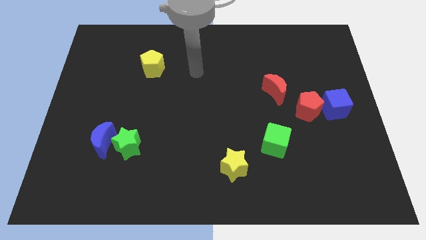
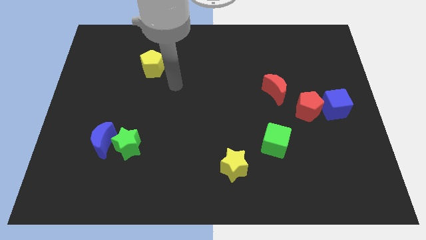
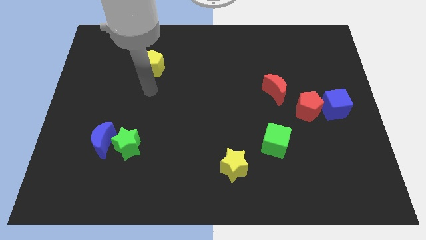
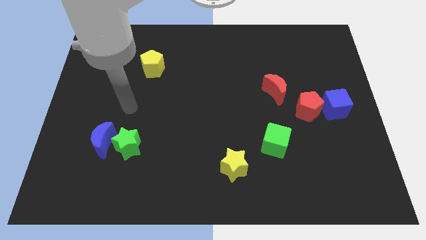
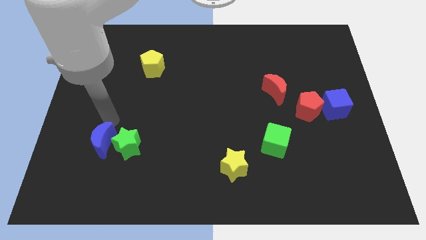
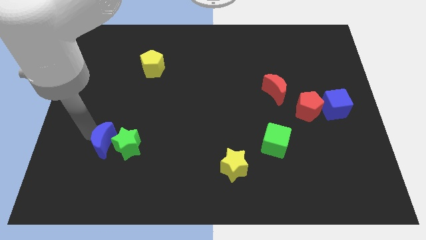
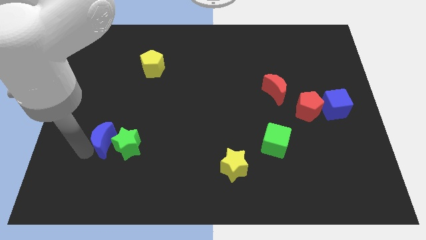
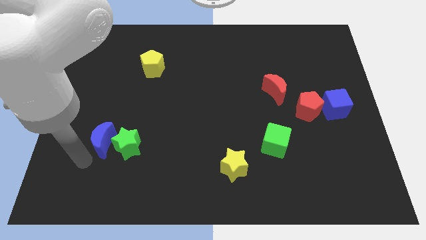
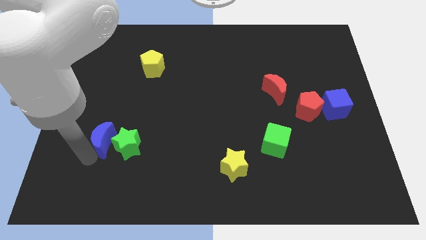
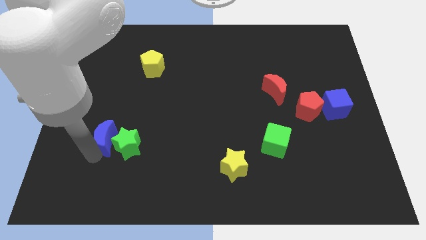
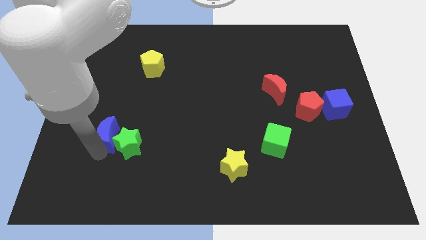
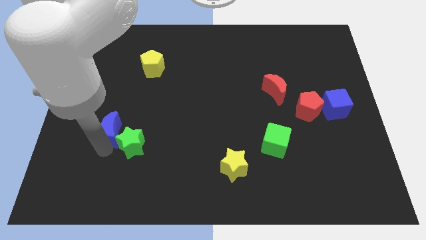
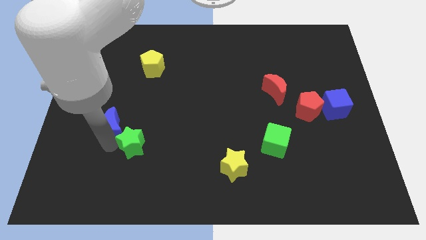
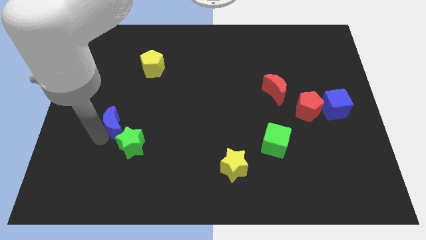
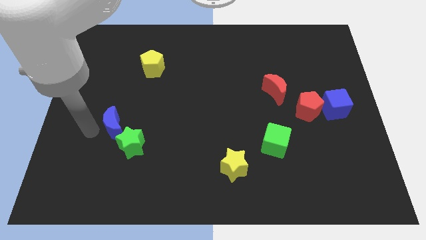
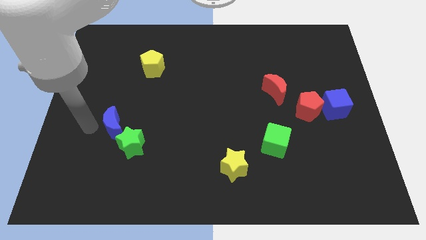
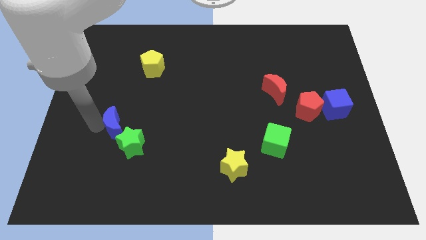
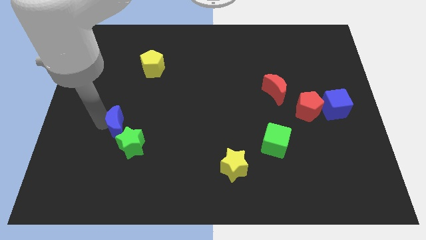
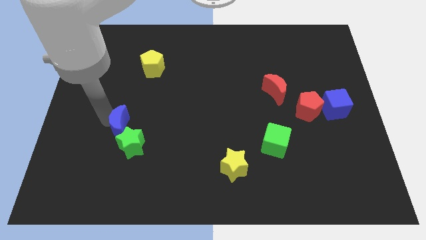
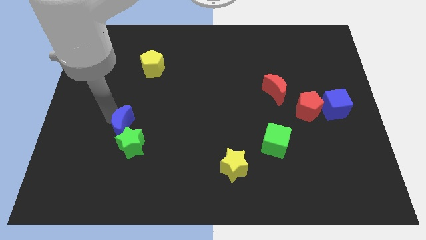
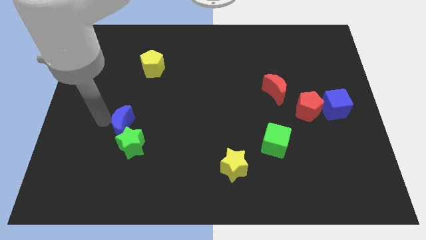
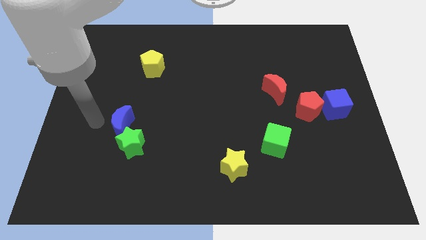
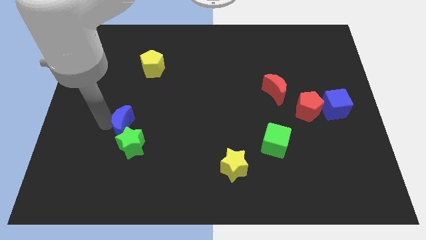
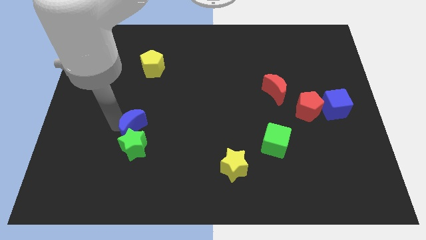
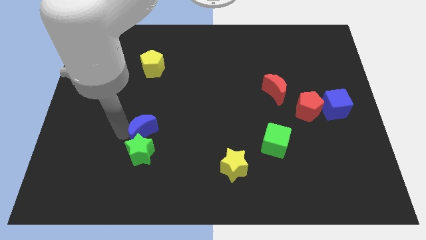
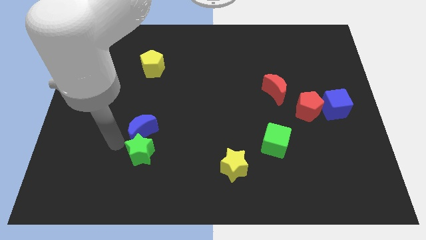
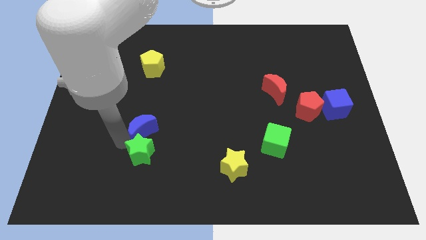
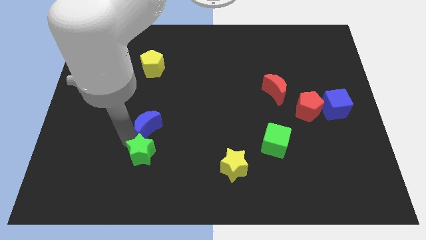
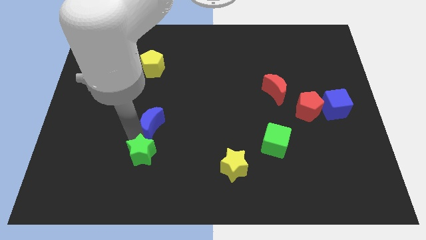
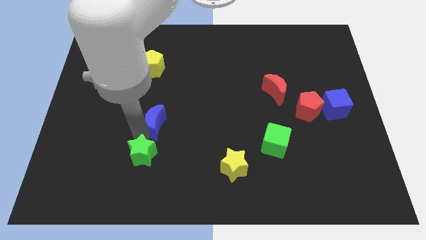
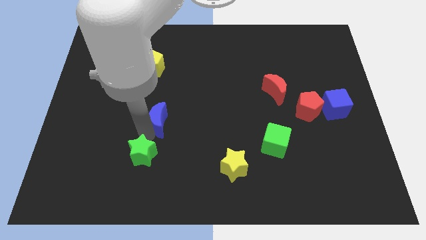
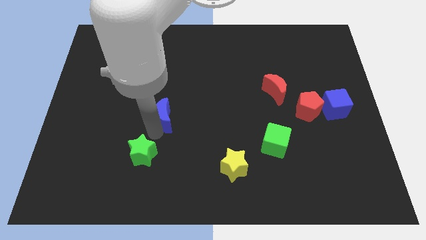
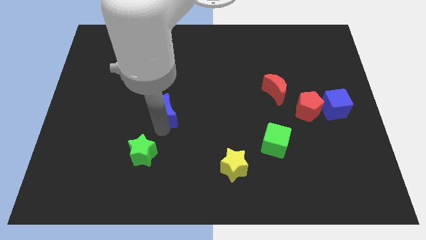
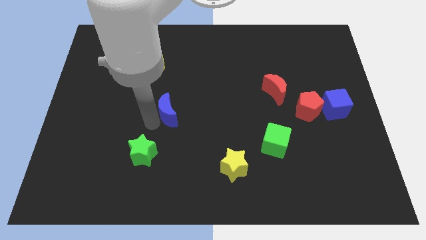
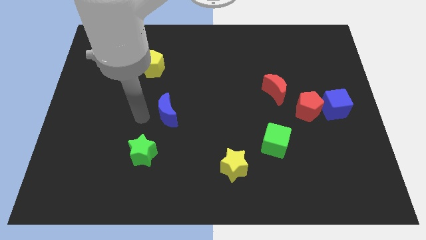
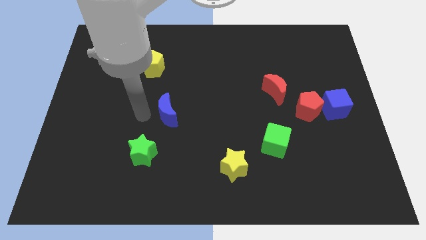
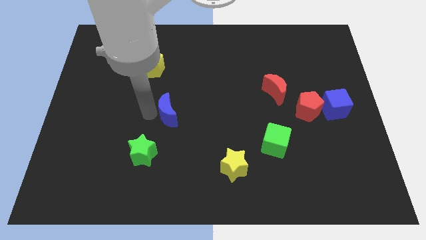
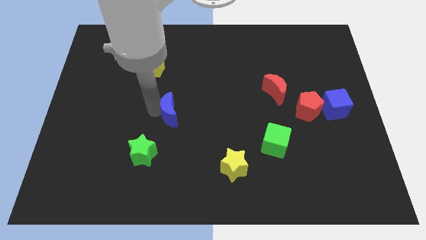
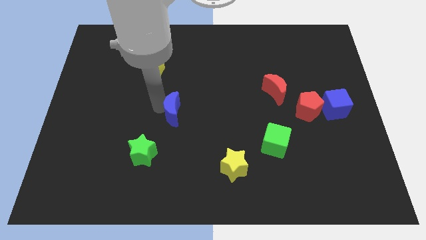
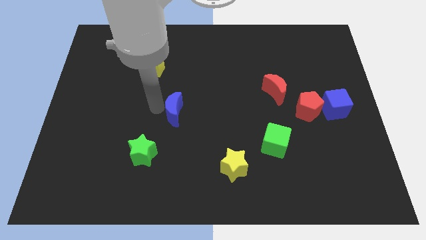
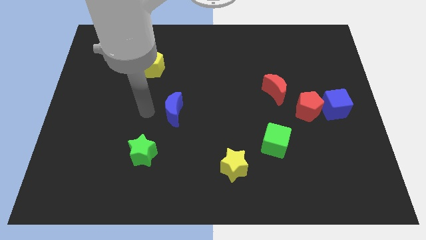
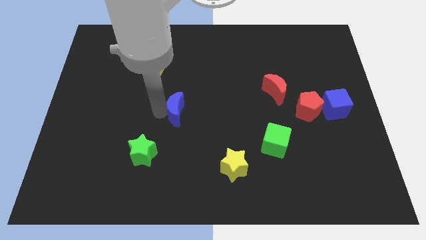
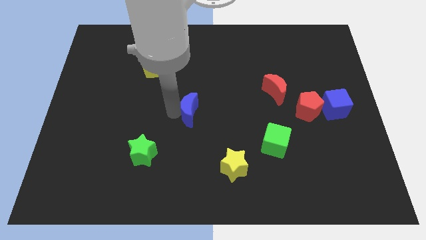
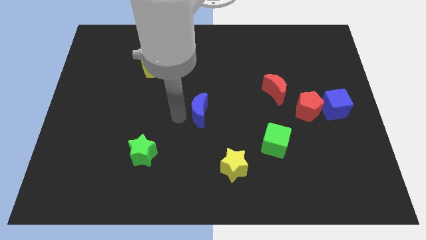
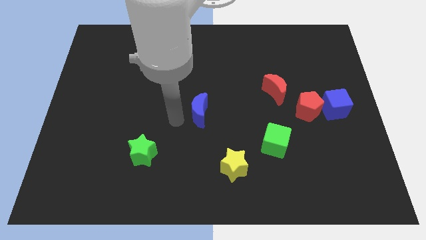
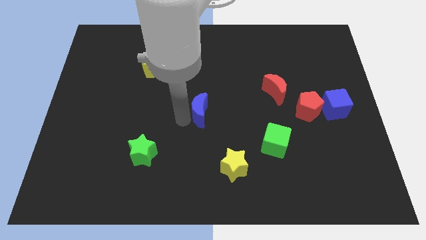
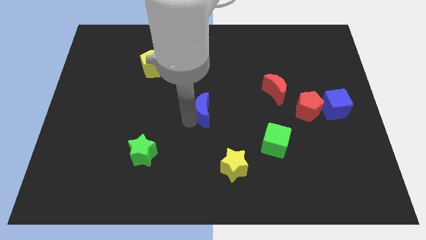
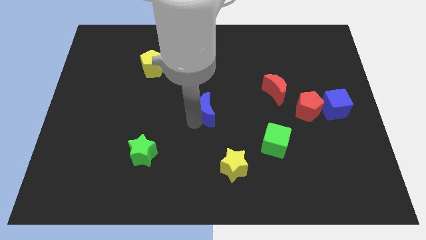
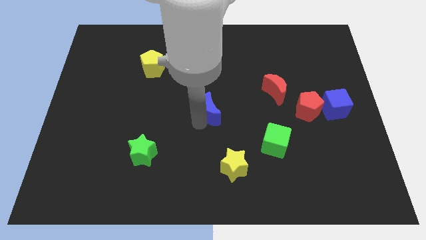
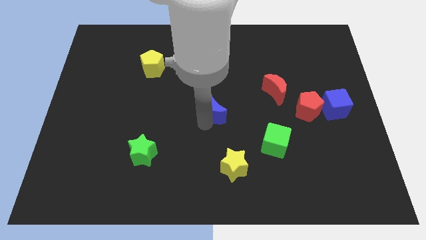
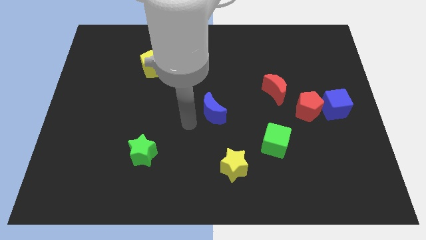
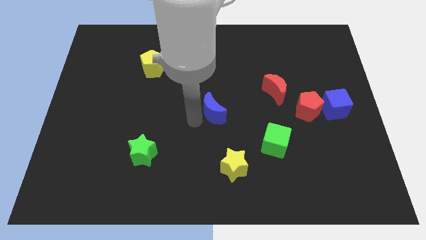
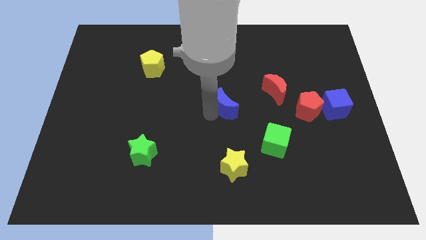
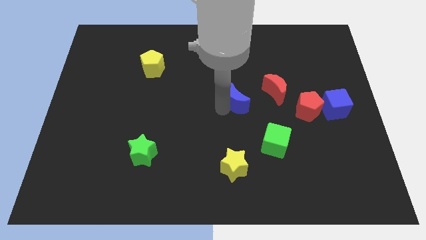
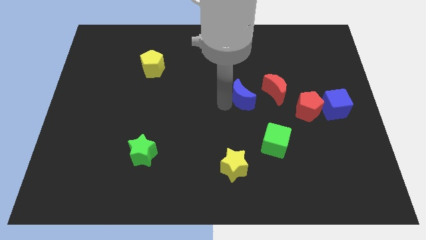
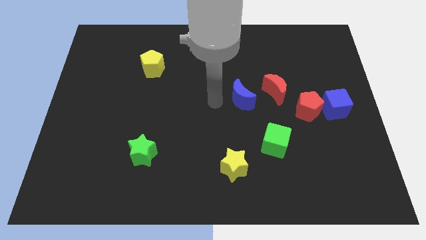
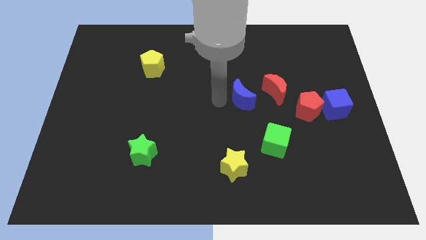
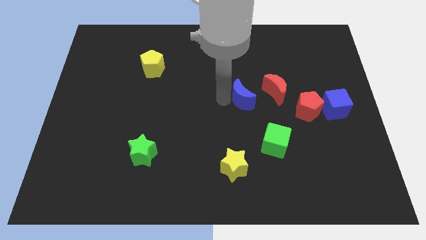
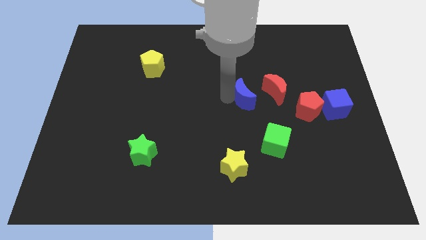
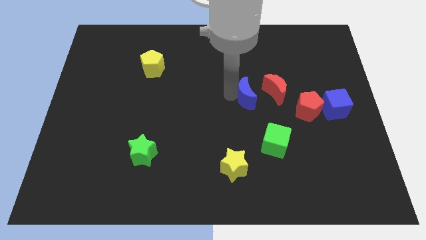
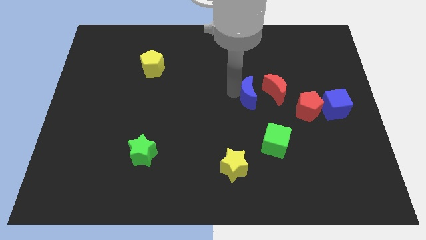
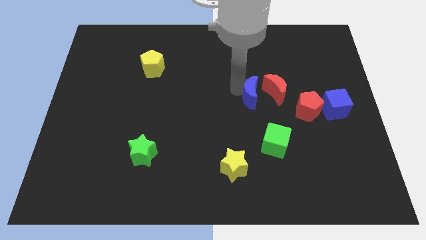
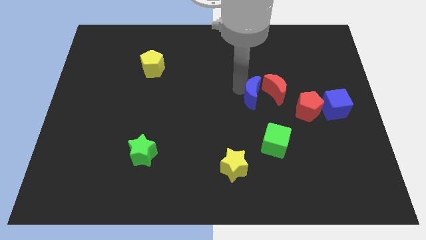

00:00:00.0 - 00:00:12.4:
put the blue moon next to the red moon

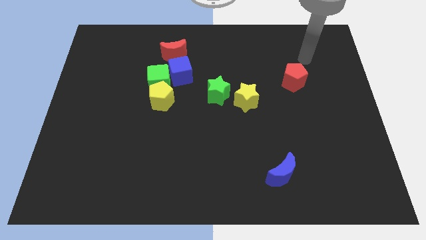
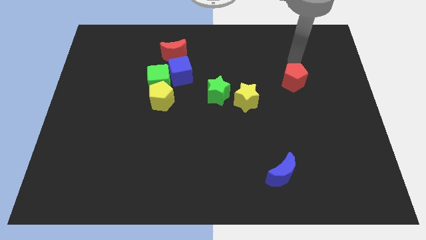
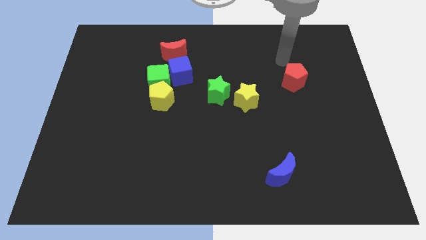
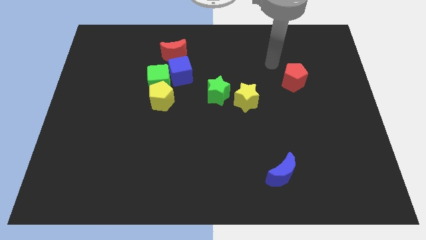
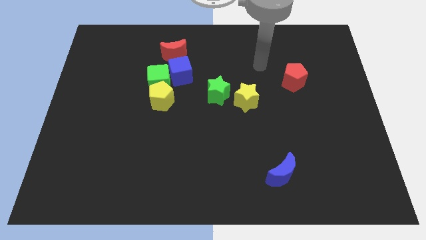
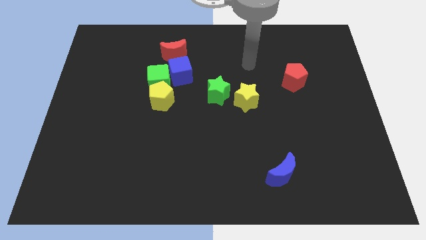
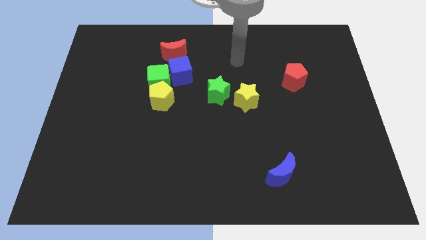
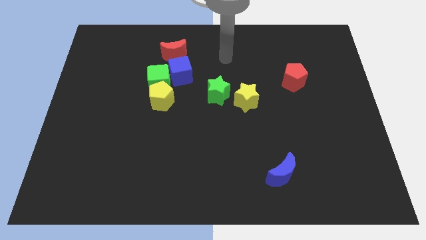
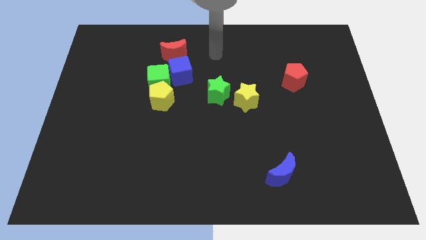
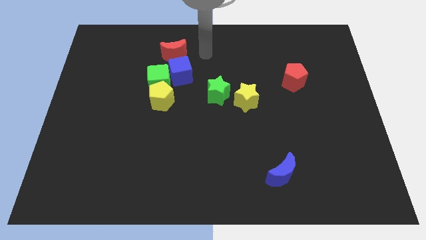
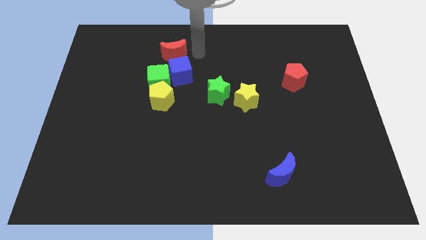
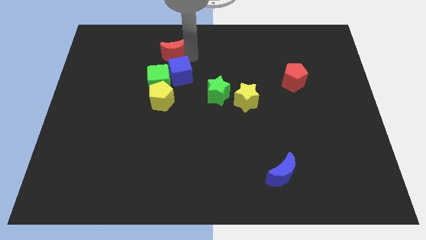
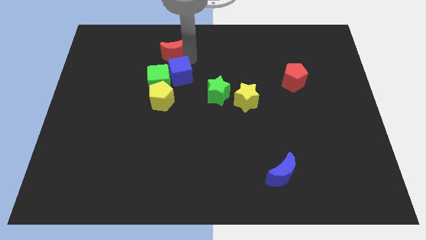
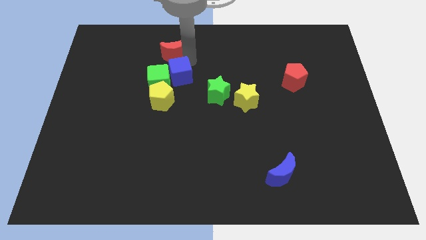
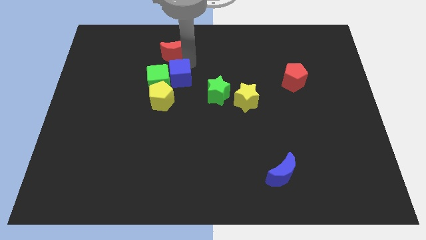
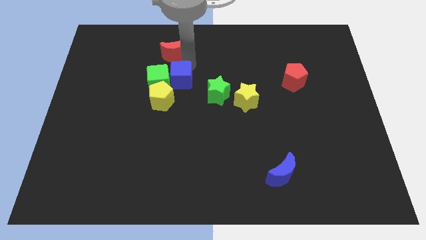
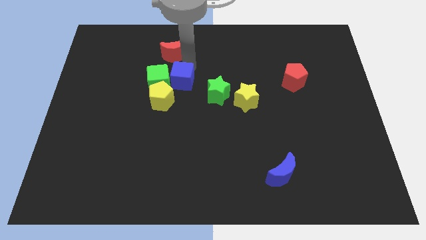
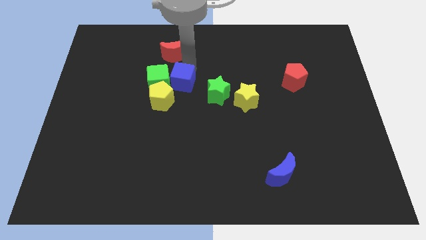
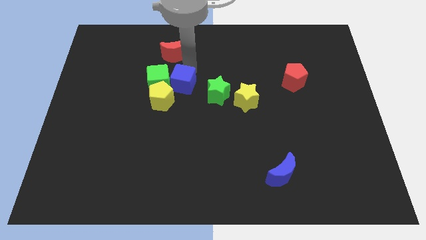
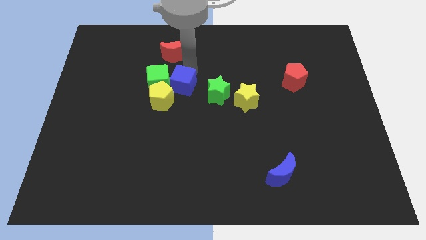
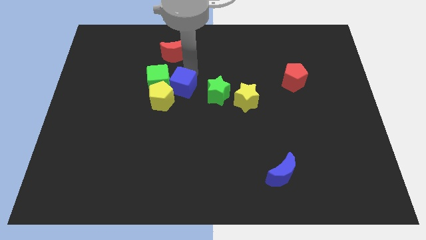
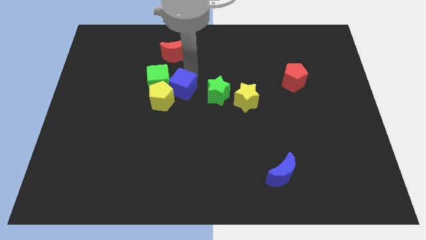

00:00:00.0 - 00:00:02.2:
move the blue cube towards the yellow pentagon
